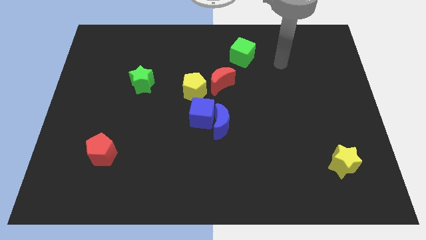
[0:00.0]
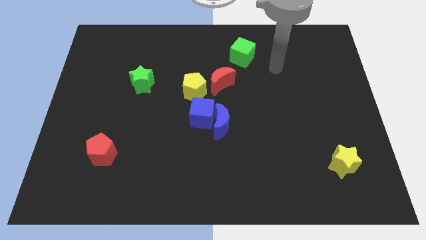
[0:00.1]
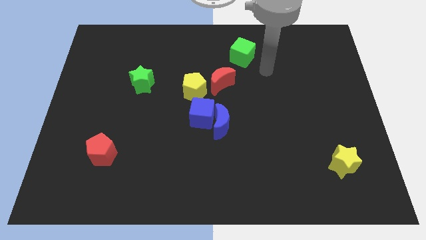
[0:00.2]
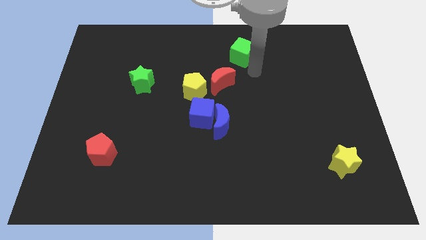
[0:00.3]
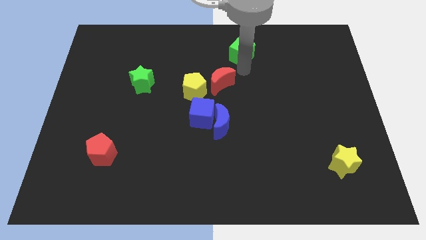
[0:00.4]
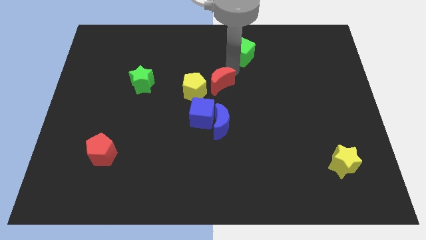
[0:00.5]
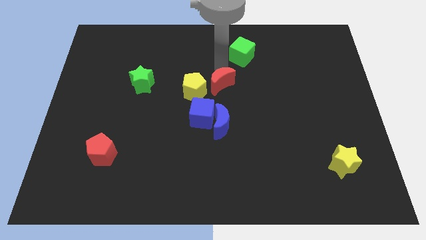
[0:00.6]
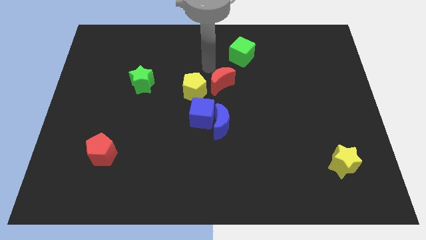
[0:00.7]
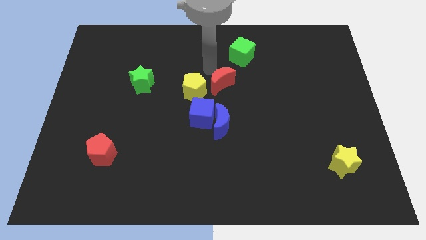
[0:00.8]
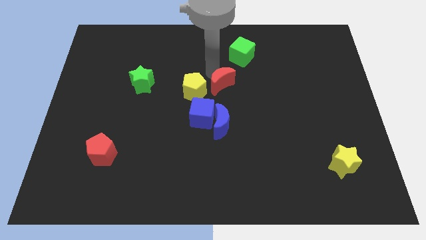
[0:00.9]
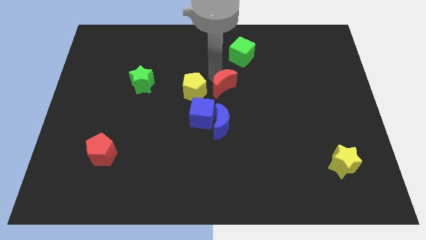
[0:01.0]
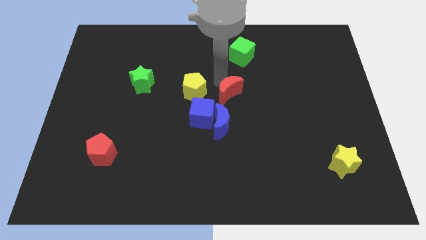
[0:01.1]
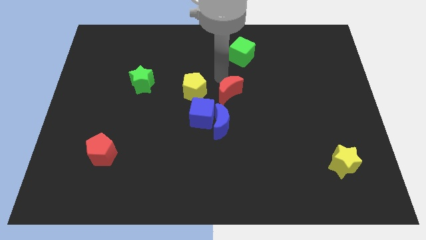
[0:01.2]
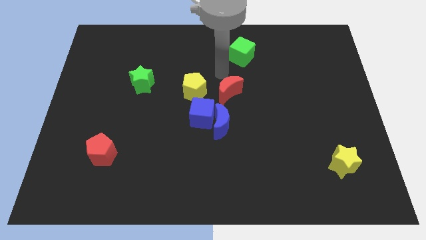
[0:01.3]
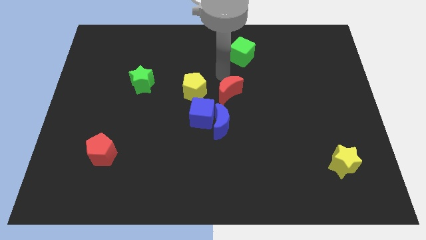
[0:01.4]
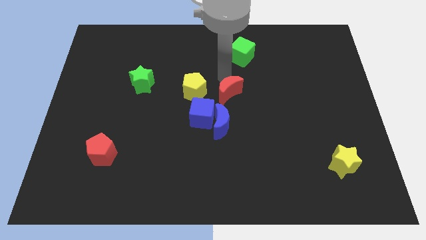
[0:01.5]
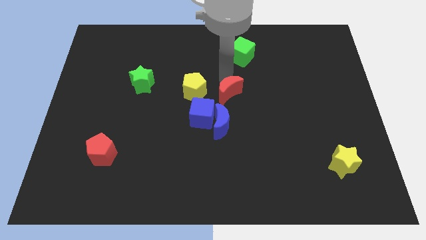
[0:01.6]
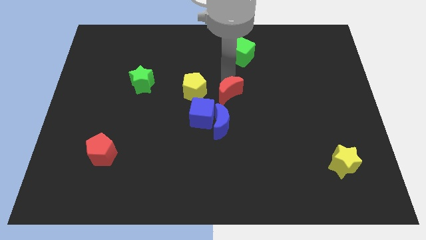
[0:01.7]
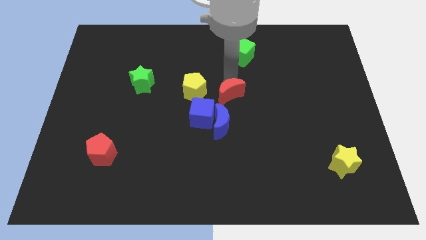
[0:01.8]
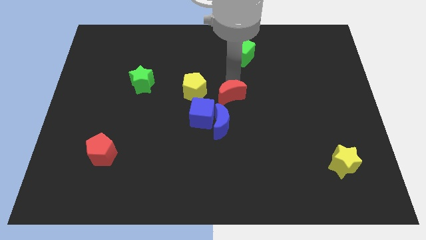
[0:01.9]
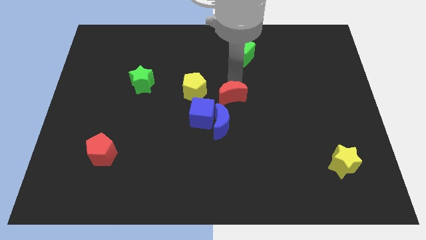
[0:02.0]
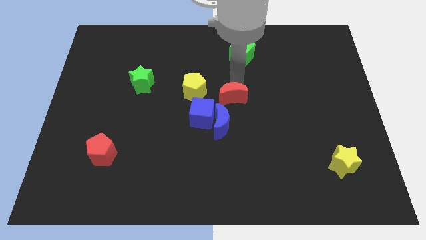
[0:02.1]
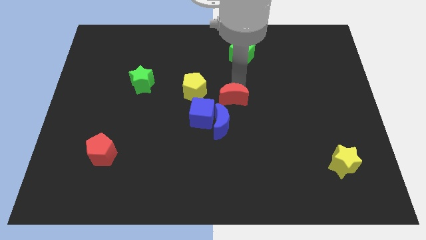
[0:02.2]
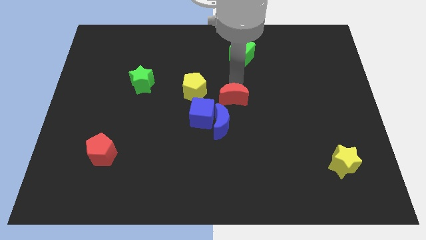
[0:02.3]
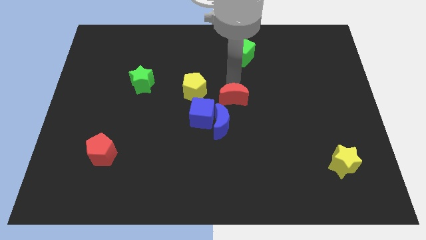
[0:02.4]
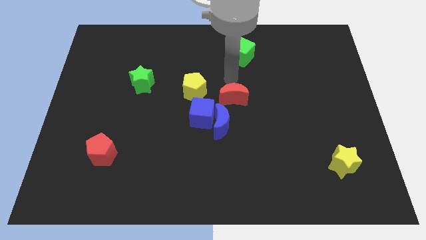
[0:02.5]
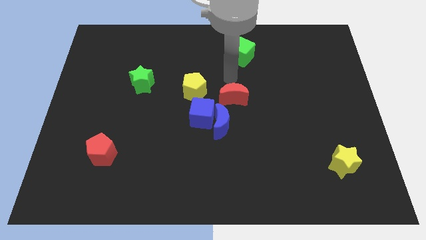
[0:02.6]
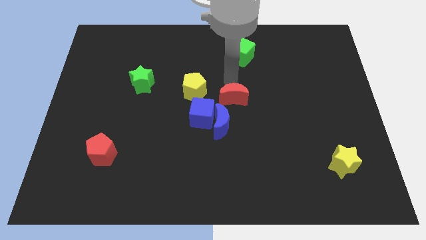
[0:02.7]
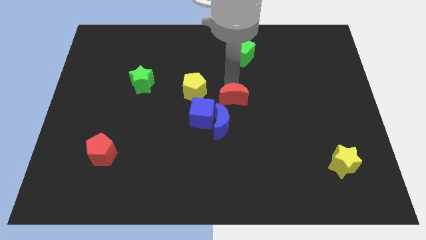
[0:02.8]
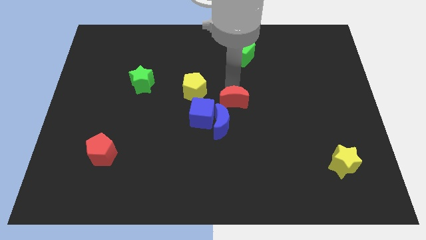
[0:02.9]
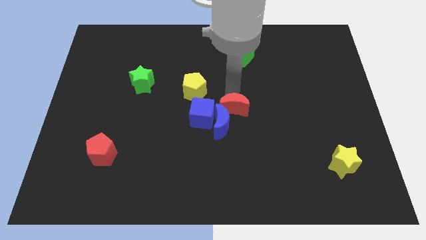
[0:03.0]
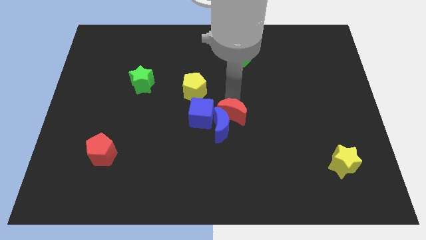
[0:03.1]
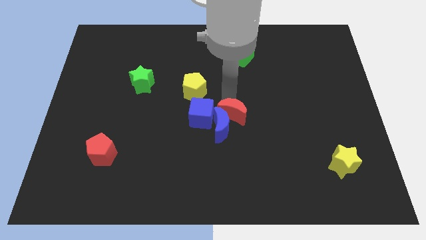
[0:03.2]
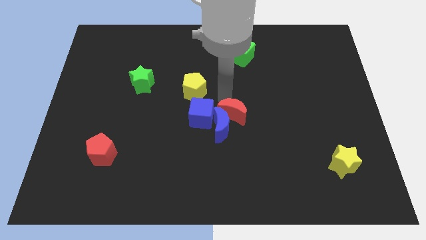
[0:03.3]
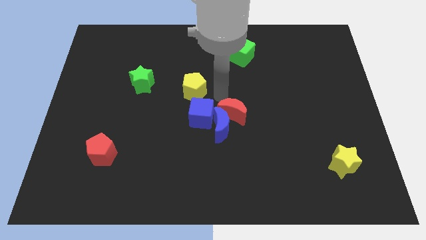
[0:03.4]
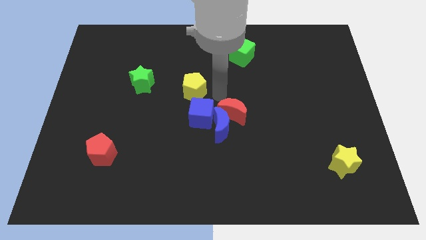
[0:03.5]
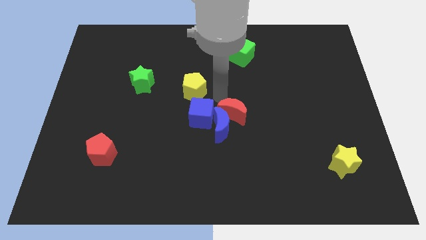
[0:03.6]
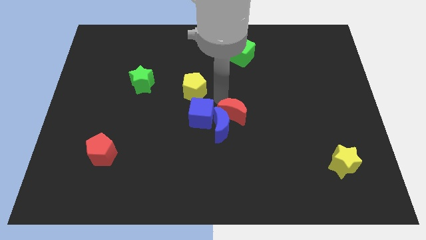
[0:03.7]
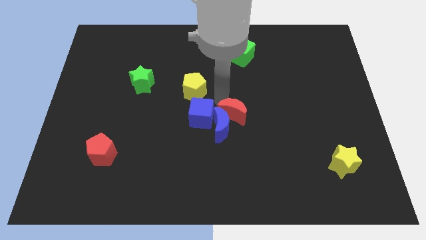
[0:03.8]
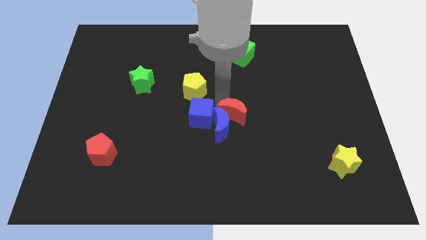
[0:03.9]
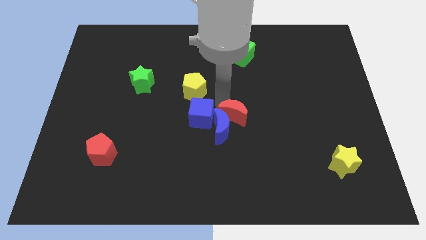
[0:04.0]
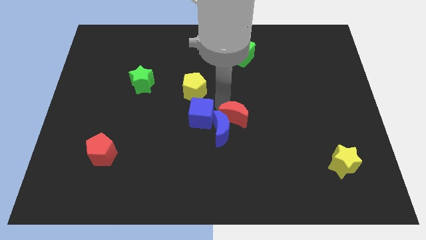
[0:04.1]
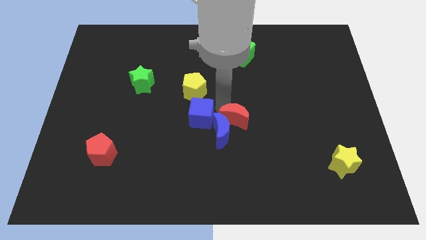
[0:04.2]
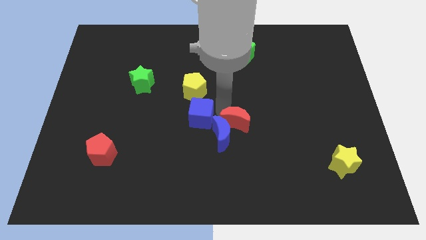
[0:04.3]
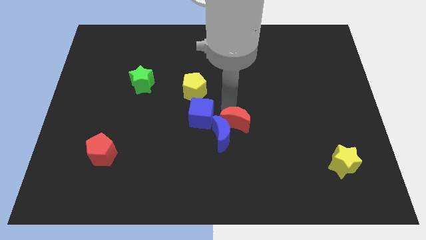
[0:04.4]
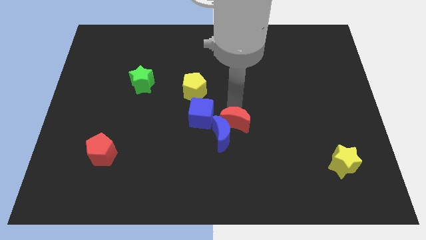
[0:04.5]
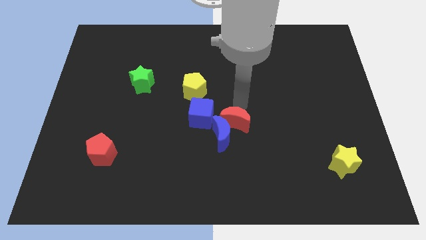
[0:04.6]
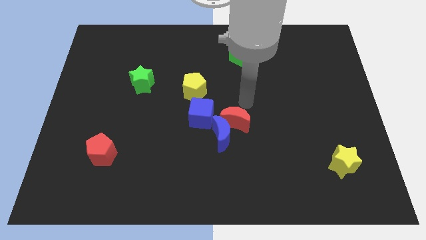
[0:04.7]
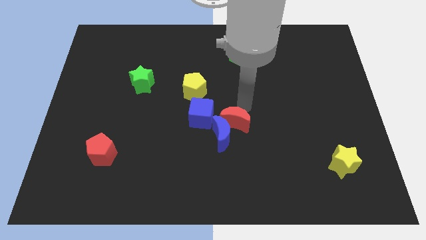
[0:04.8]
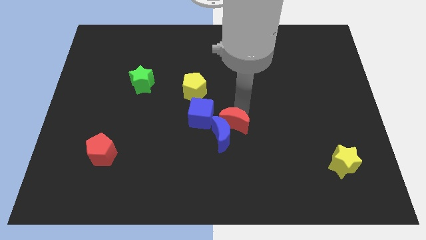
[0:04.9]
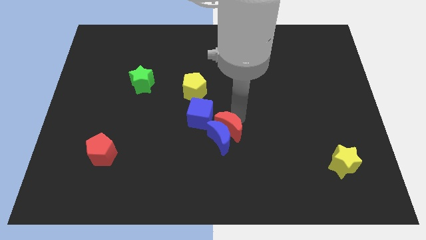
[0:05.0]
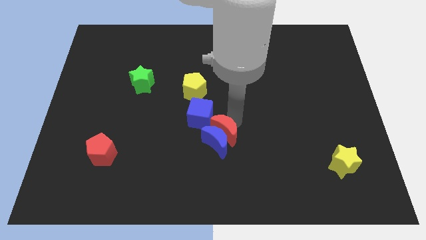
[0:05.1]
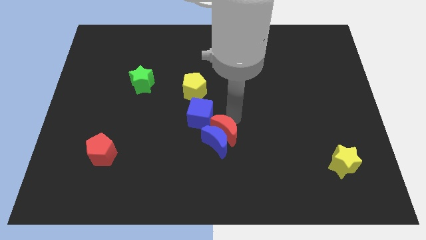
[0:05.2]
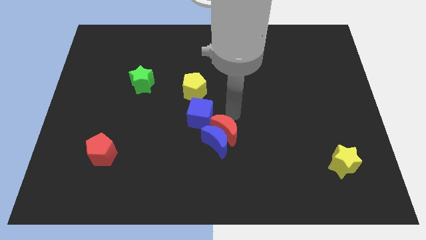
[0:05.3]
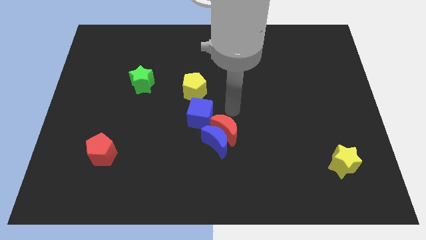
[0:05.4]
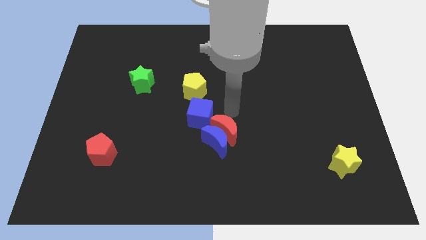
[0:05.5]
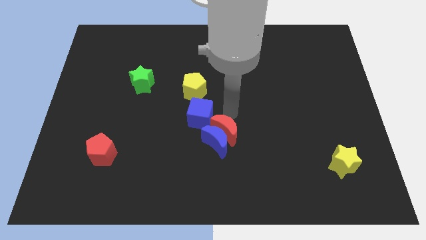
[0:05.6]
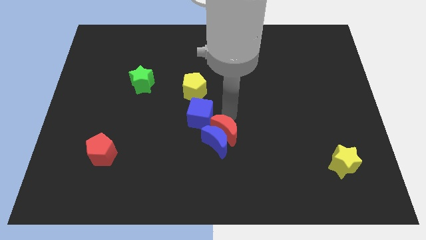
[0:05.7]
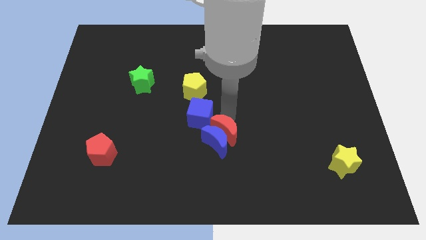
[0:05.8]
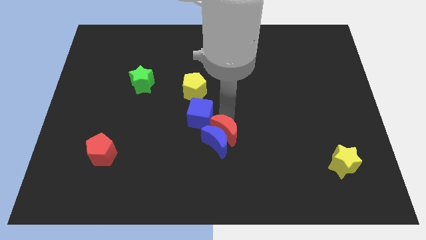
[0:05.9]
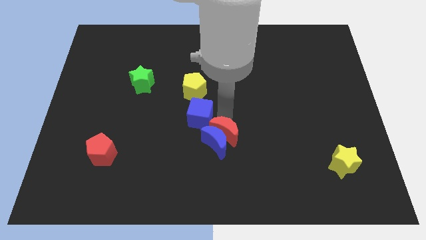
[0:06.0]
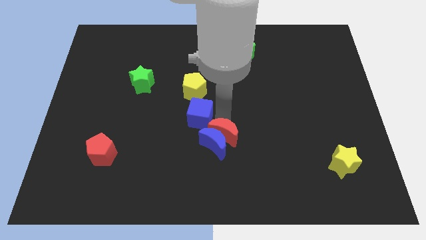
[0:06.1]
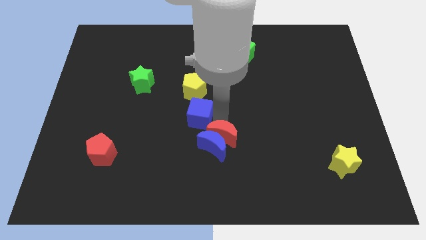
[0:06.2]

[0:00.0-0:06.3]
move the red moon below the blue cube

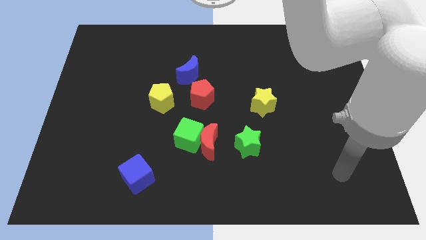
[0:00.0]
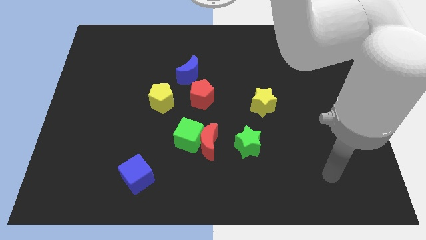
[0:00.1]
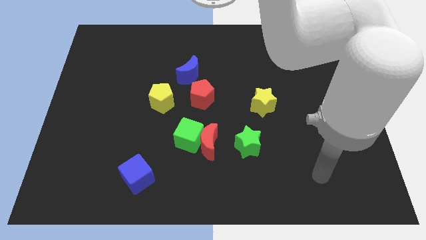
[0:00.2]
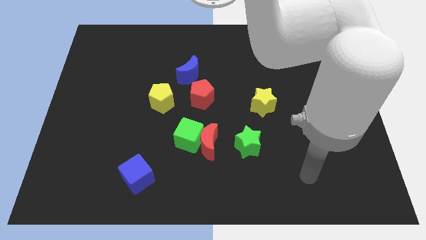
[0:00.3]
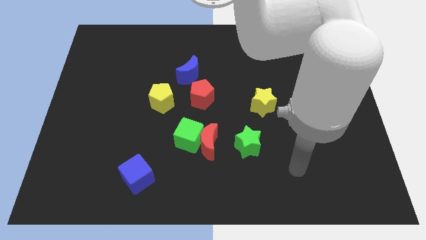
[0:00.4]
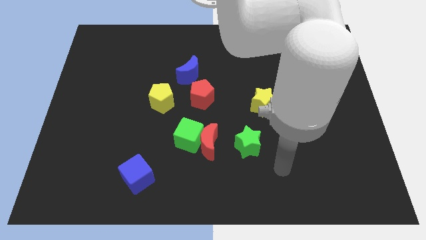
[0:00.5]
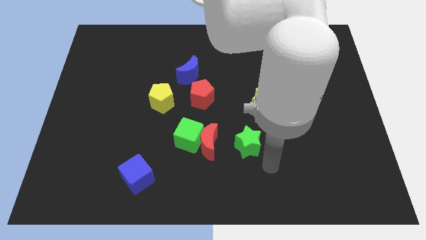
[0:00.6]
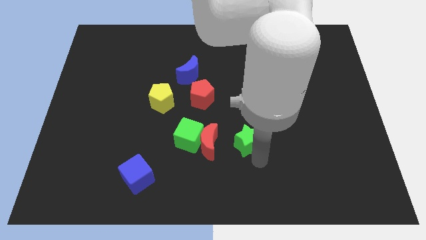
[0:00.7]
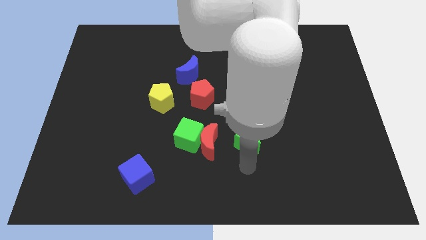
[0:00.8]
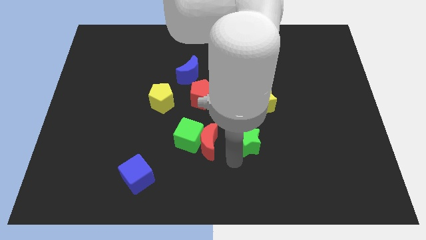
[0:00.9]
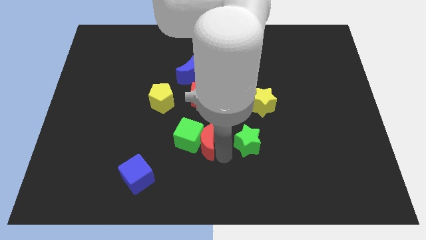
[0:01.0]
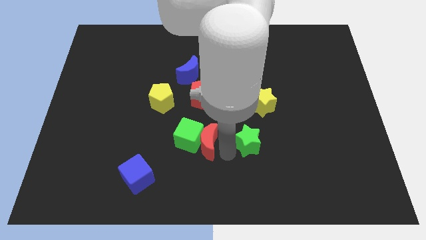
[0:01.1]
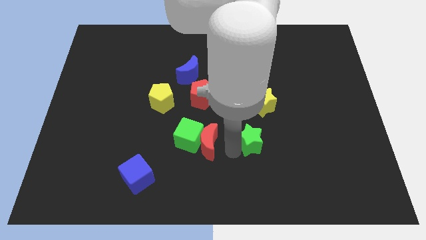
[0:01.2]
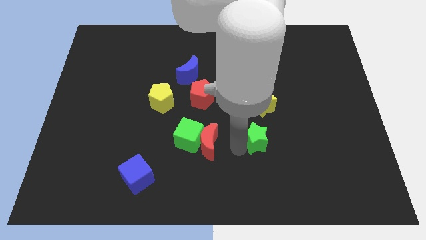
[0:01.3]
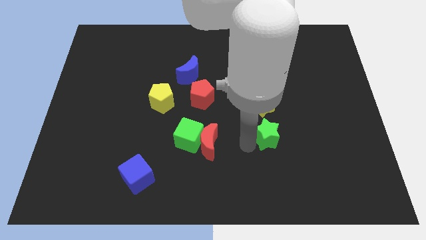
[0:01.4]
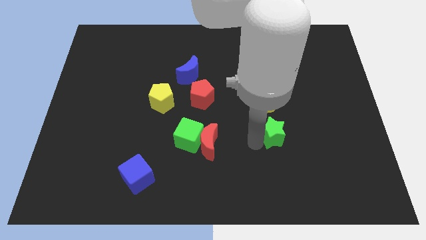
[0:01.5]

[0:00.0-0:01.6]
put the green star to the bottom right side of the yellow star
